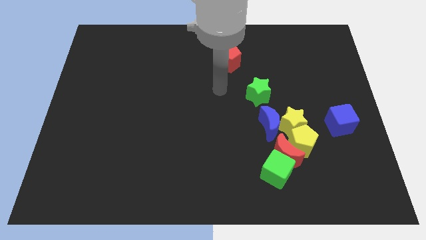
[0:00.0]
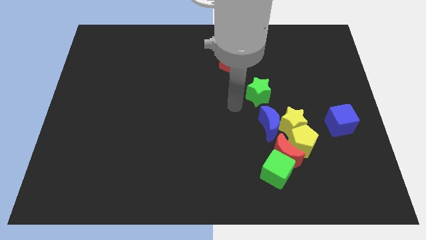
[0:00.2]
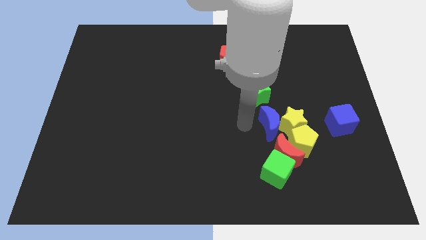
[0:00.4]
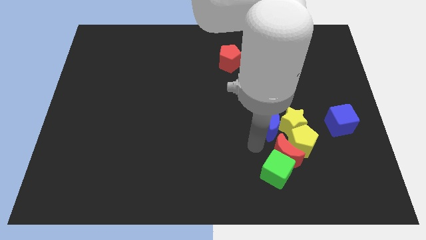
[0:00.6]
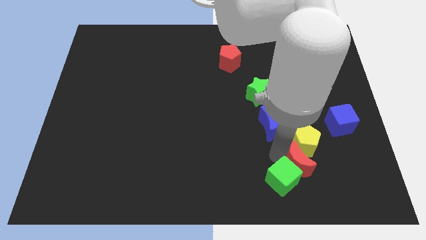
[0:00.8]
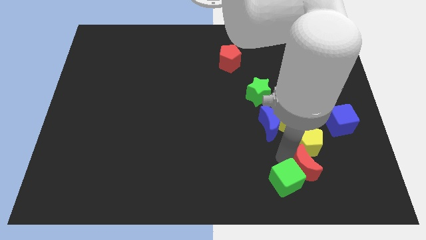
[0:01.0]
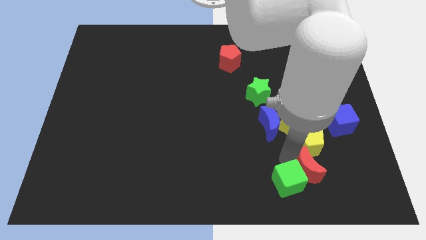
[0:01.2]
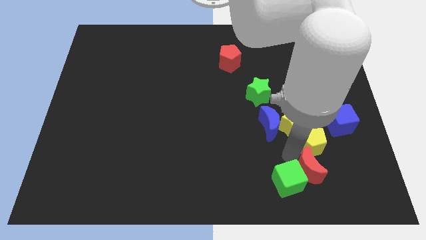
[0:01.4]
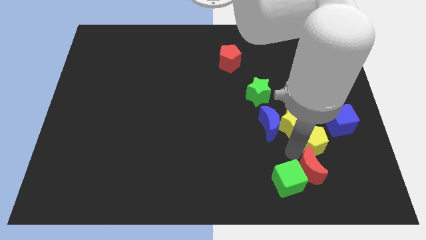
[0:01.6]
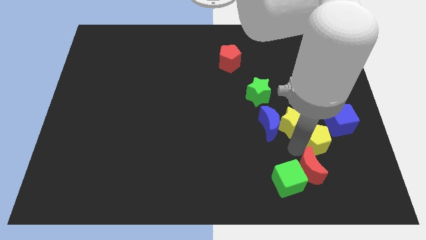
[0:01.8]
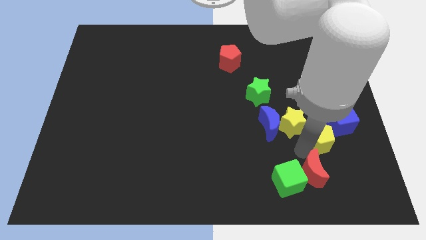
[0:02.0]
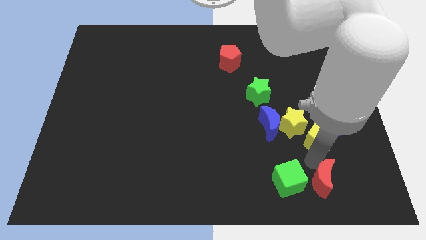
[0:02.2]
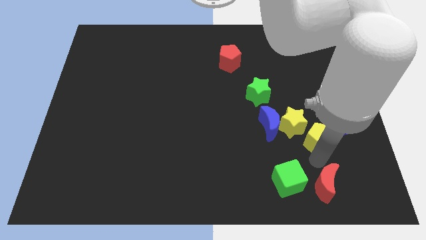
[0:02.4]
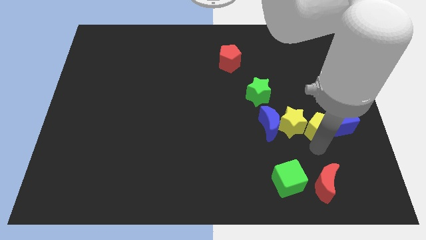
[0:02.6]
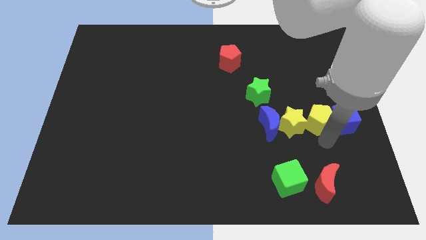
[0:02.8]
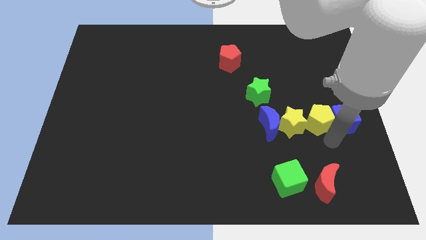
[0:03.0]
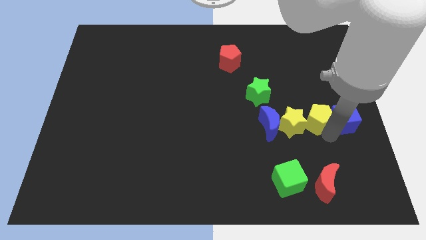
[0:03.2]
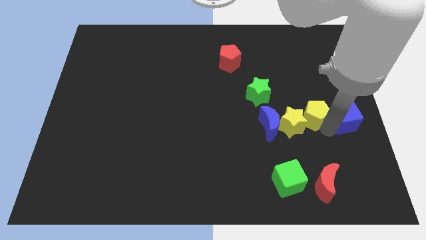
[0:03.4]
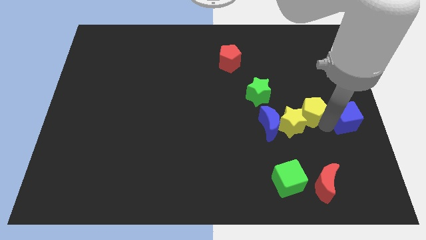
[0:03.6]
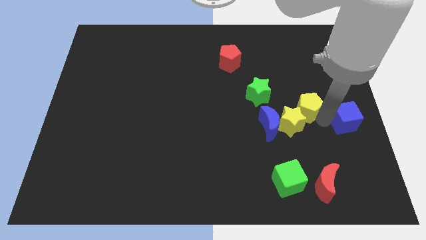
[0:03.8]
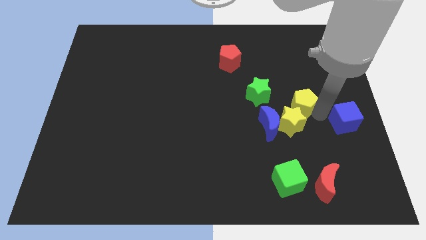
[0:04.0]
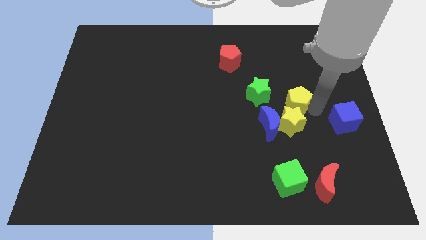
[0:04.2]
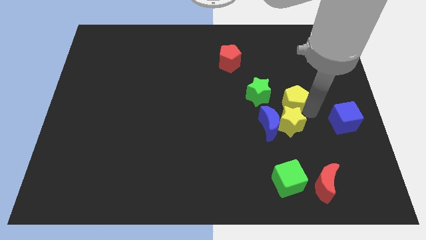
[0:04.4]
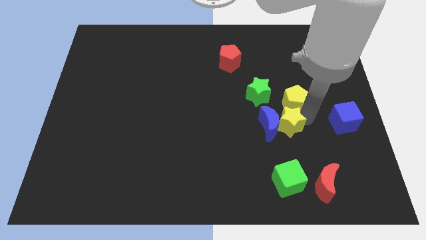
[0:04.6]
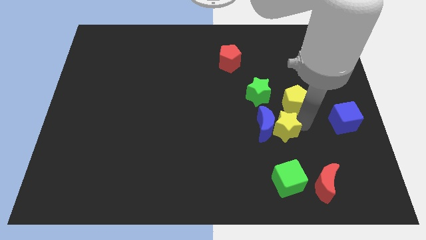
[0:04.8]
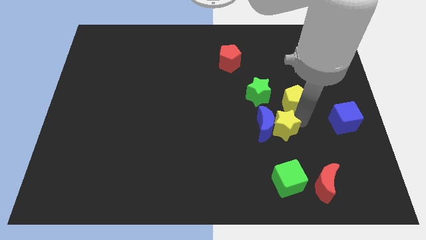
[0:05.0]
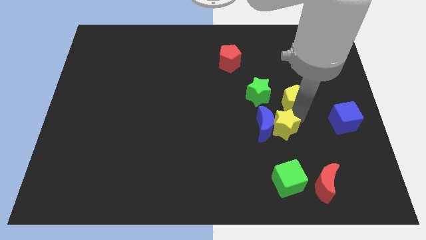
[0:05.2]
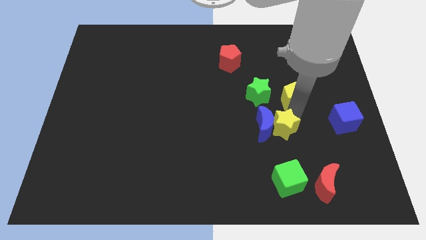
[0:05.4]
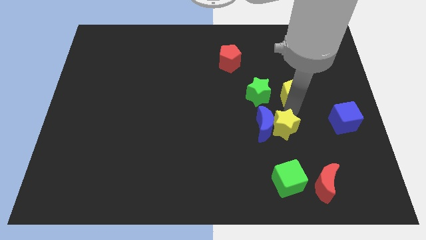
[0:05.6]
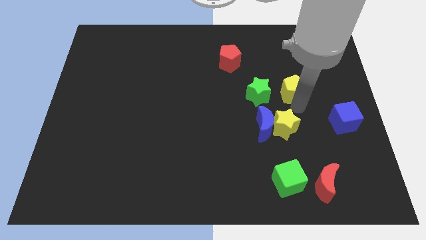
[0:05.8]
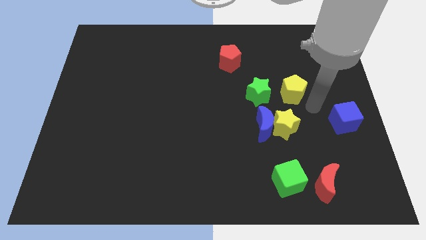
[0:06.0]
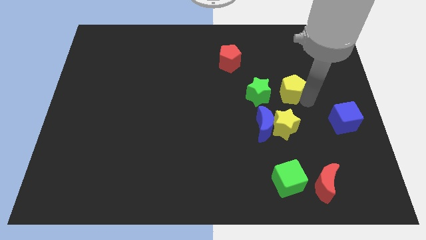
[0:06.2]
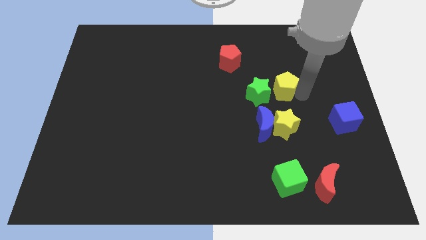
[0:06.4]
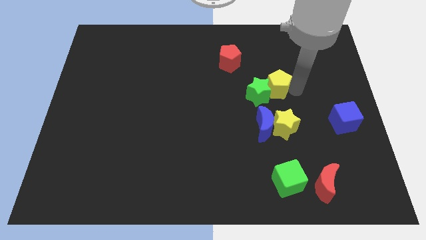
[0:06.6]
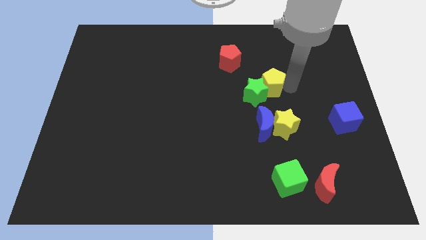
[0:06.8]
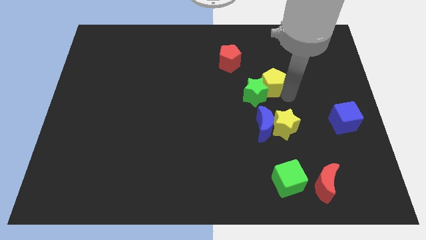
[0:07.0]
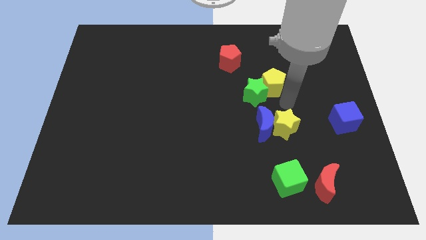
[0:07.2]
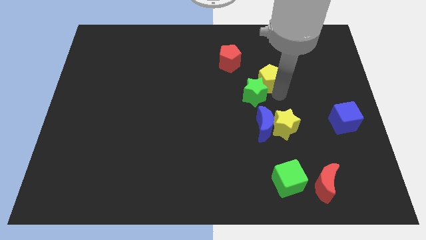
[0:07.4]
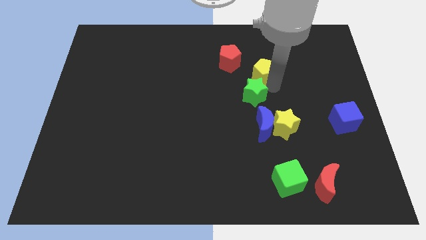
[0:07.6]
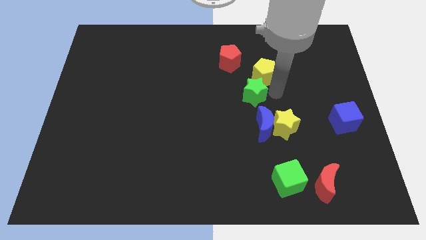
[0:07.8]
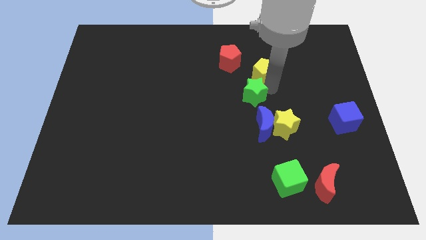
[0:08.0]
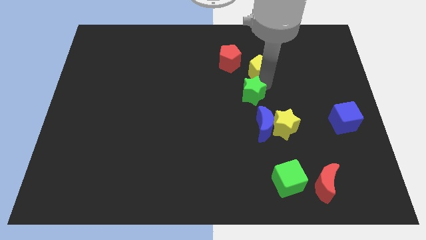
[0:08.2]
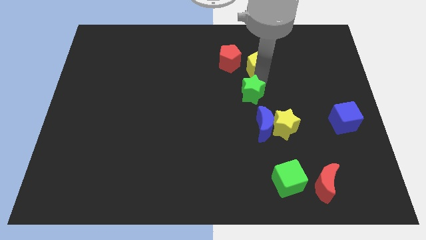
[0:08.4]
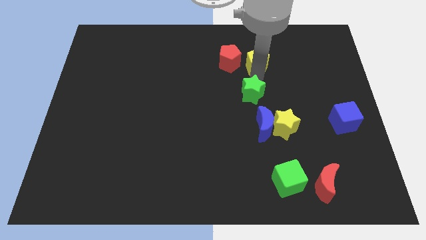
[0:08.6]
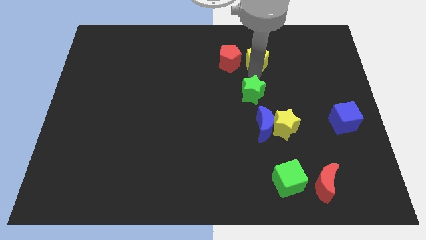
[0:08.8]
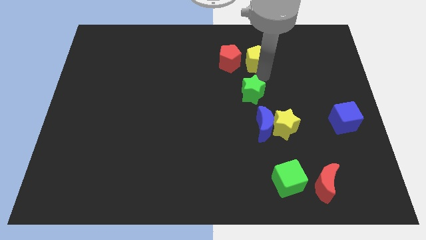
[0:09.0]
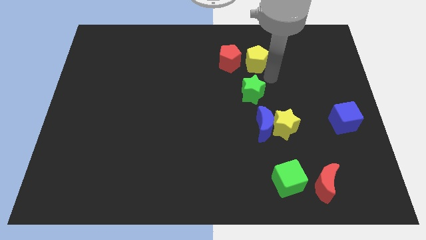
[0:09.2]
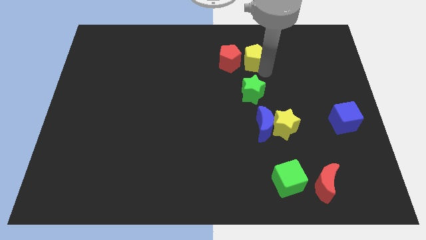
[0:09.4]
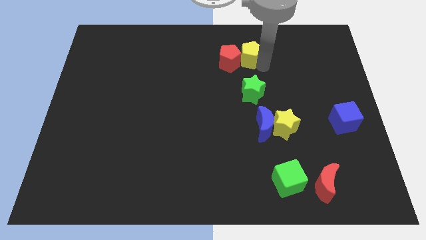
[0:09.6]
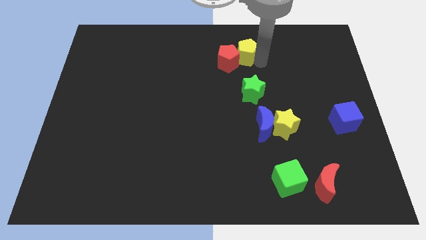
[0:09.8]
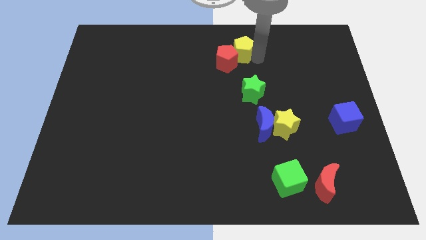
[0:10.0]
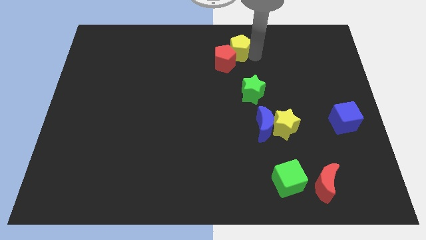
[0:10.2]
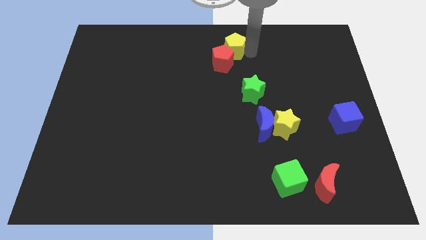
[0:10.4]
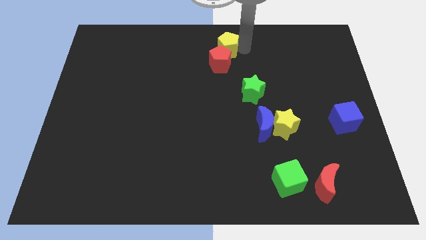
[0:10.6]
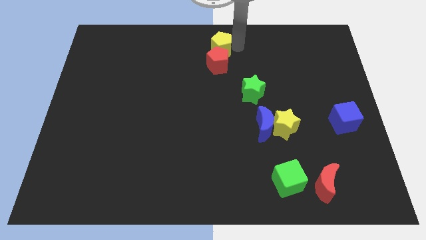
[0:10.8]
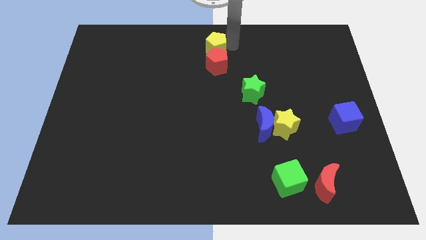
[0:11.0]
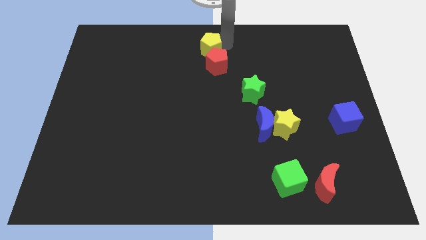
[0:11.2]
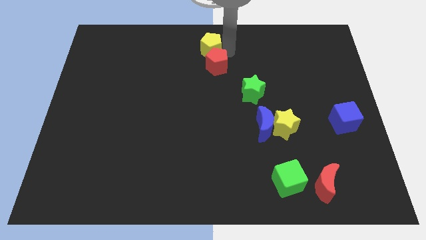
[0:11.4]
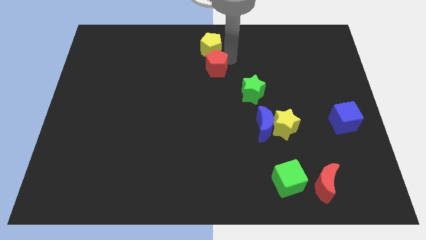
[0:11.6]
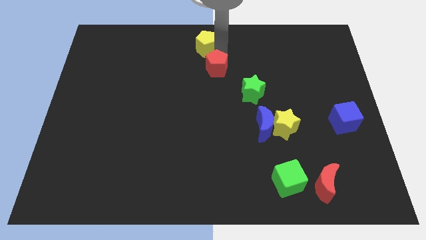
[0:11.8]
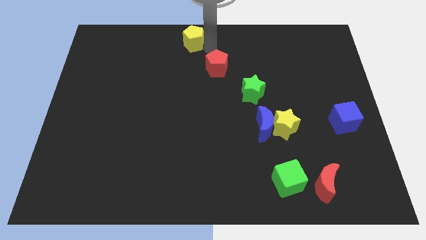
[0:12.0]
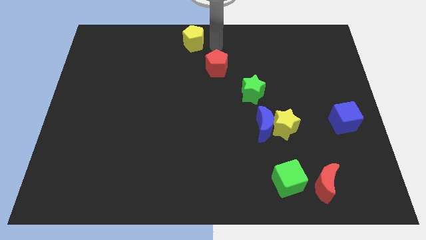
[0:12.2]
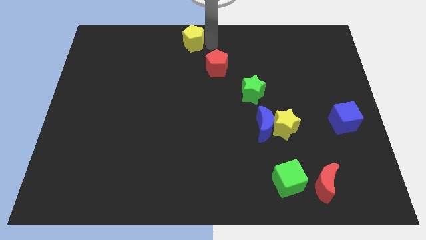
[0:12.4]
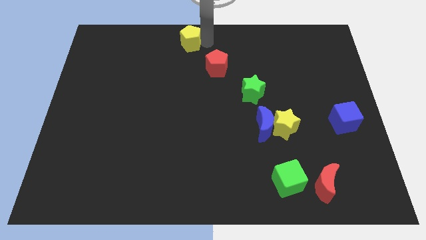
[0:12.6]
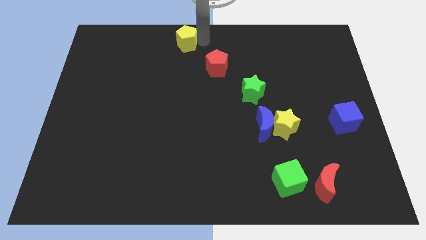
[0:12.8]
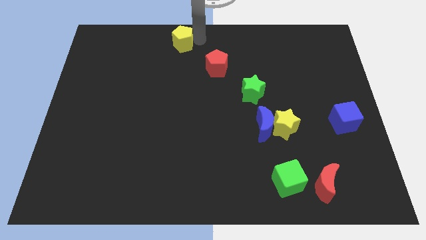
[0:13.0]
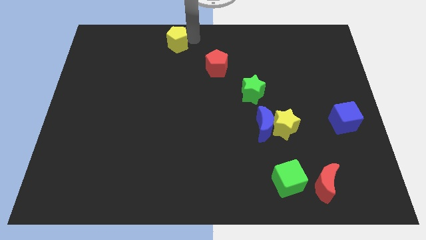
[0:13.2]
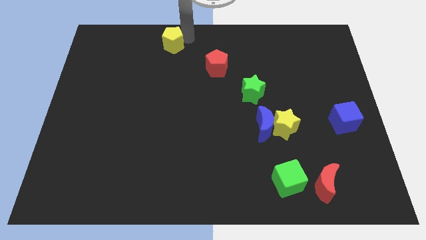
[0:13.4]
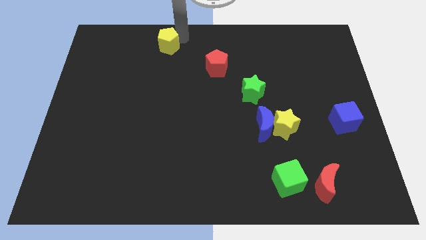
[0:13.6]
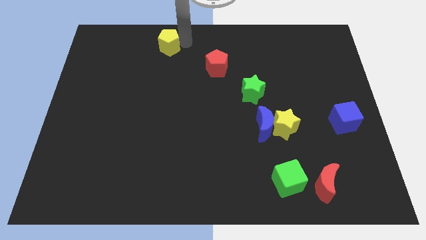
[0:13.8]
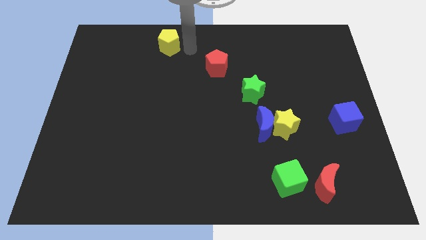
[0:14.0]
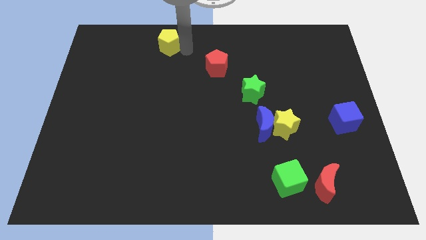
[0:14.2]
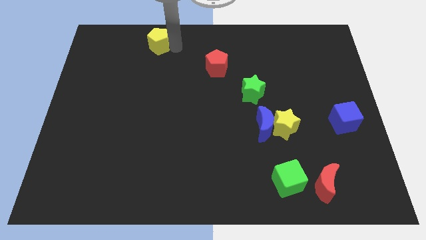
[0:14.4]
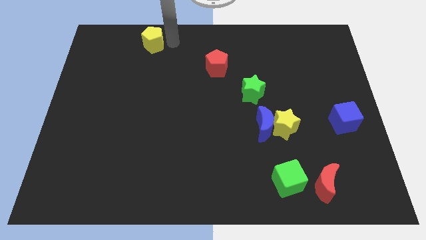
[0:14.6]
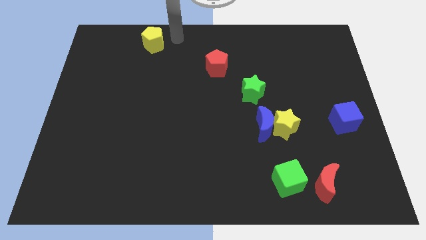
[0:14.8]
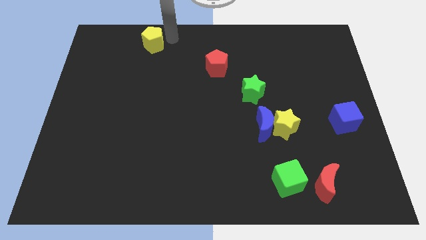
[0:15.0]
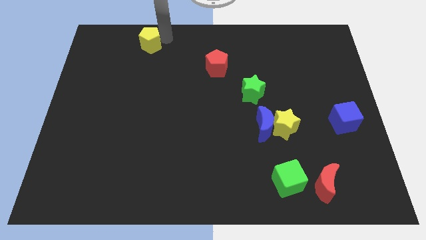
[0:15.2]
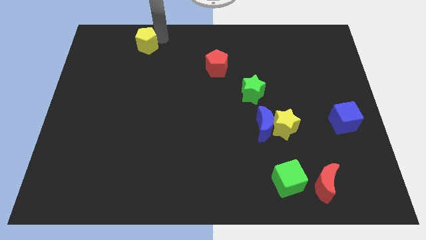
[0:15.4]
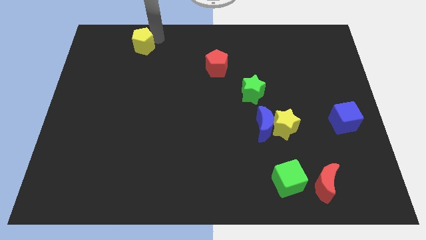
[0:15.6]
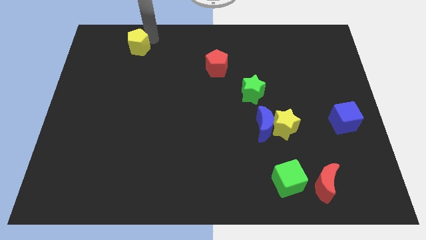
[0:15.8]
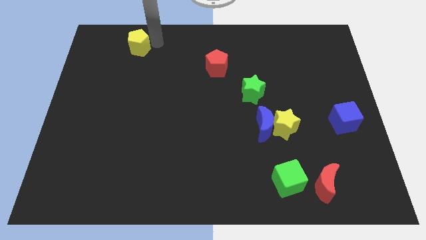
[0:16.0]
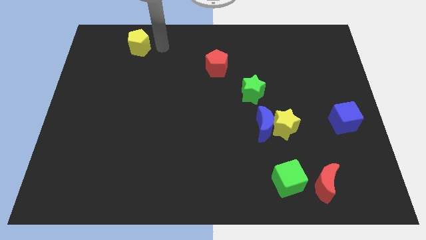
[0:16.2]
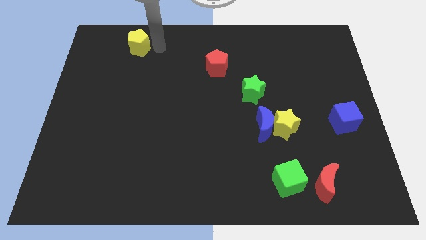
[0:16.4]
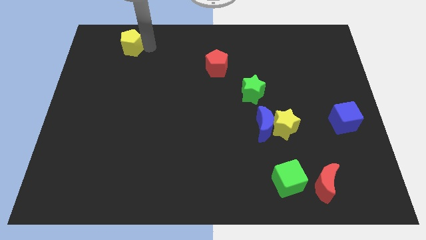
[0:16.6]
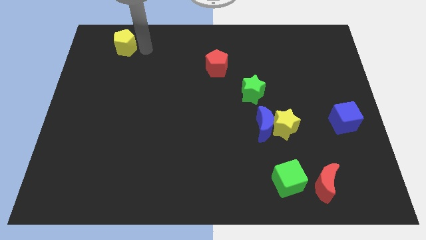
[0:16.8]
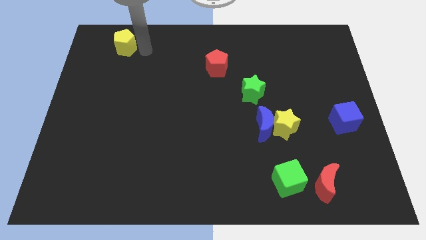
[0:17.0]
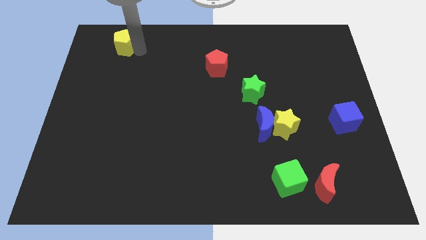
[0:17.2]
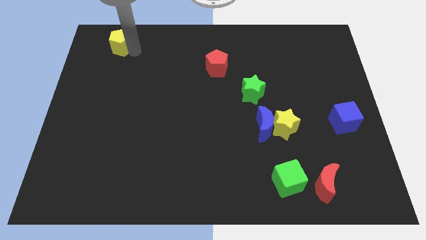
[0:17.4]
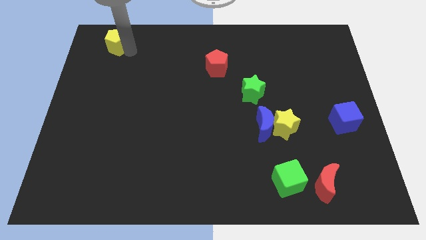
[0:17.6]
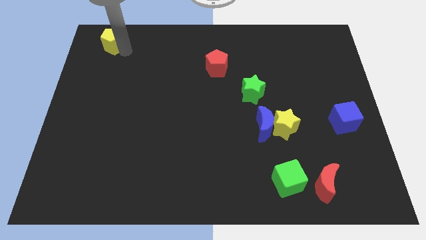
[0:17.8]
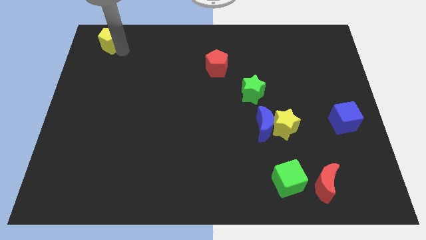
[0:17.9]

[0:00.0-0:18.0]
push the yellow pentagon to the upper left corner
